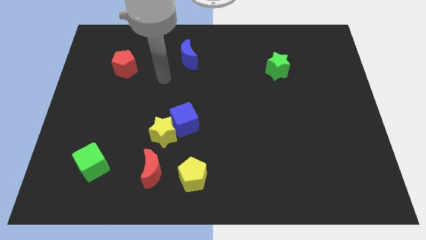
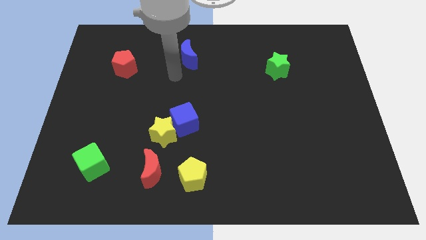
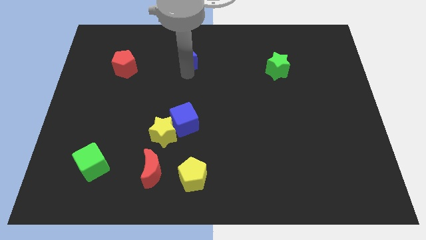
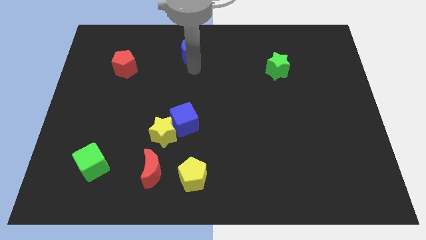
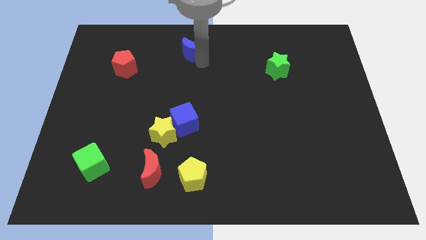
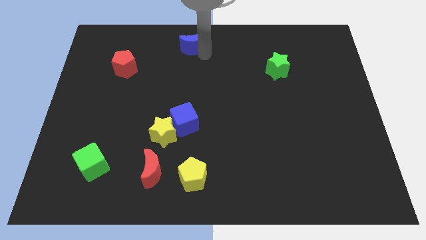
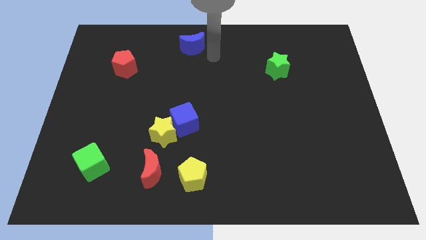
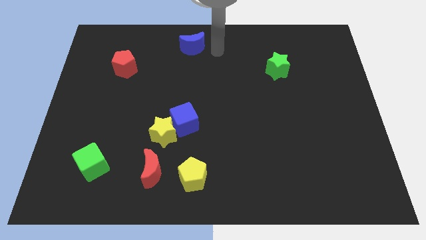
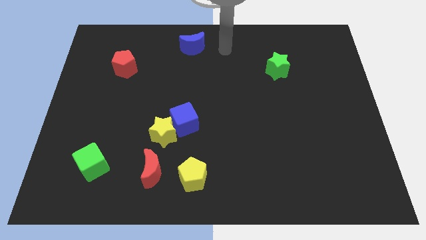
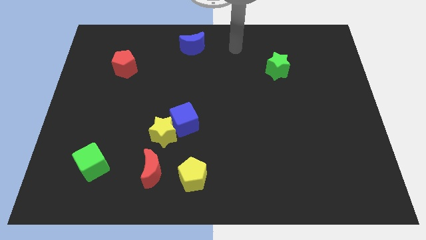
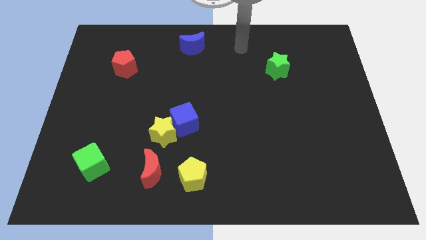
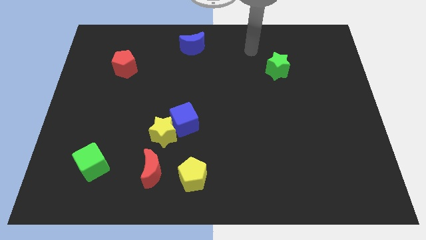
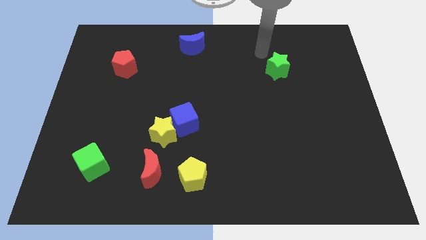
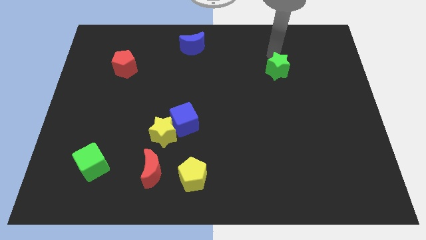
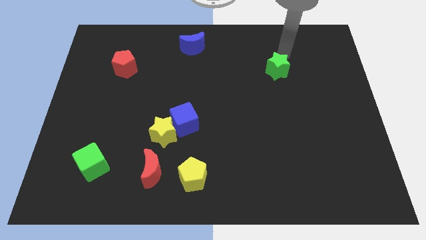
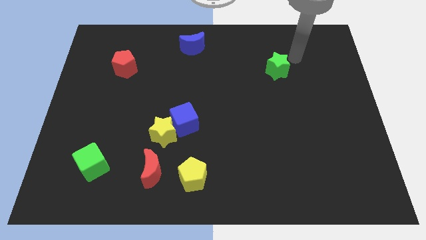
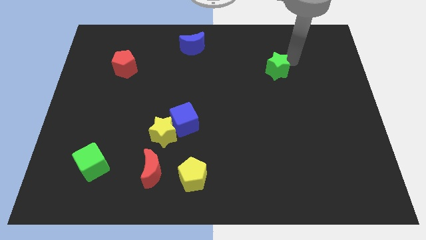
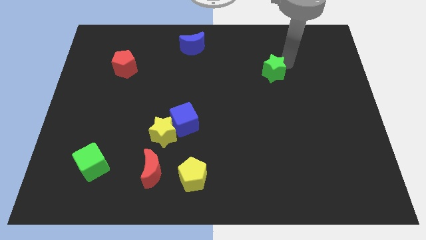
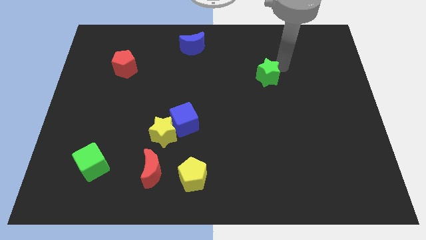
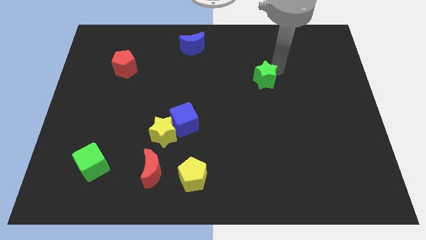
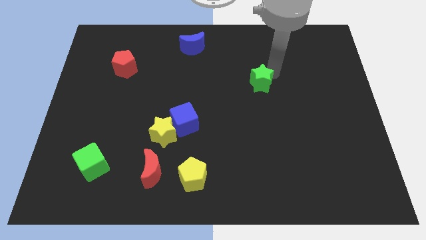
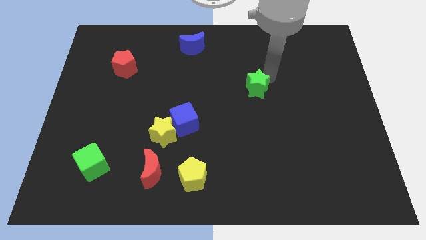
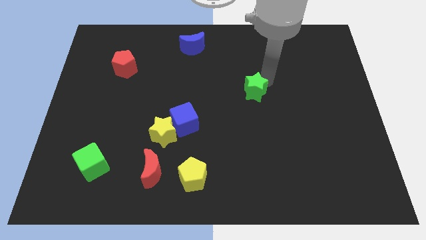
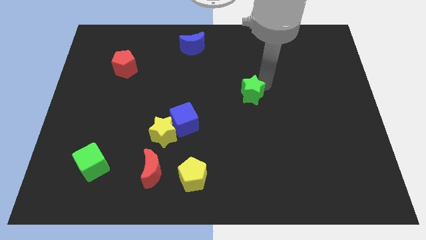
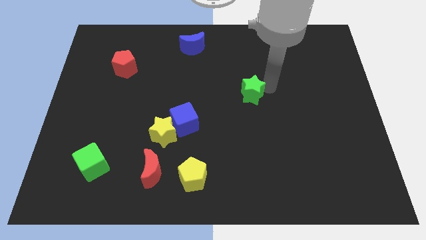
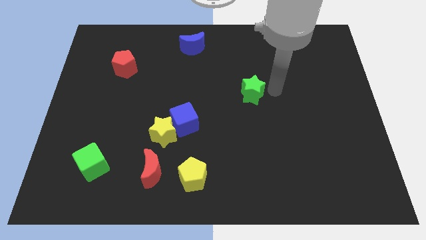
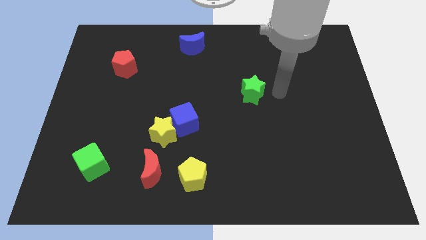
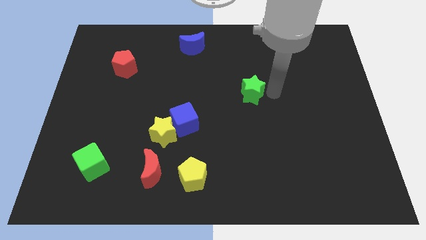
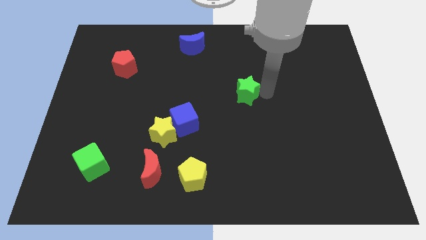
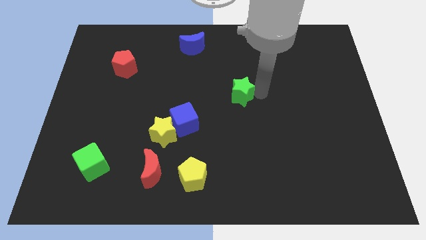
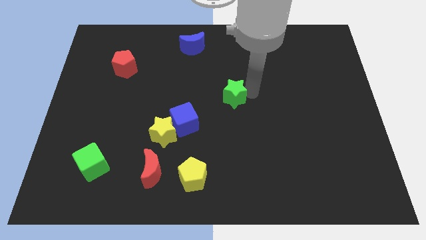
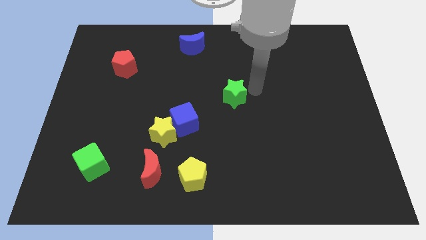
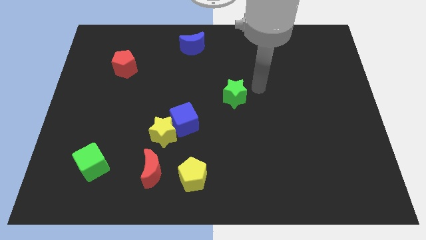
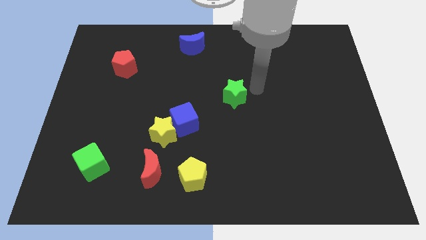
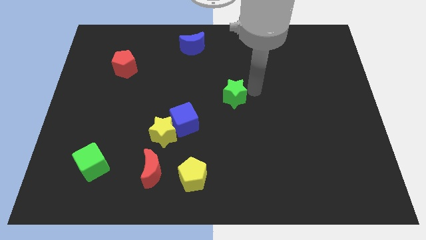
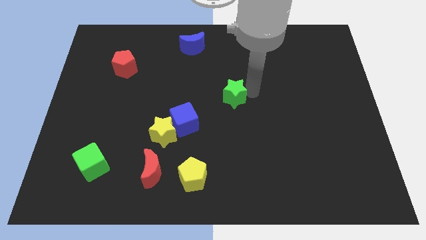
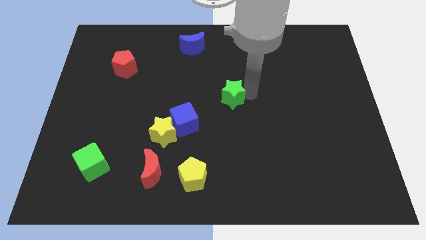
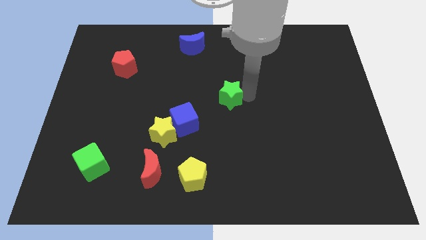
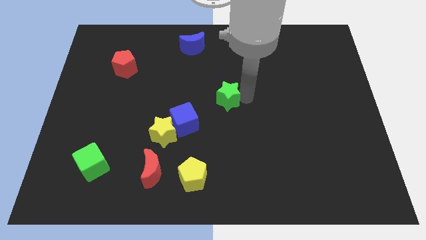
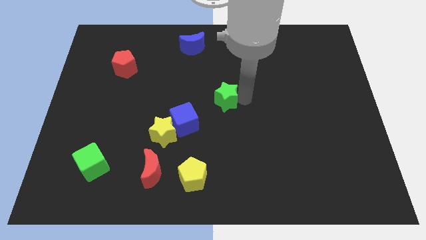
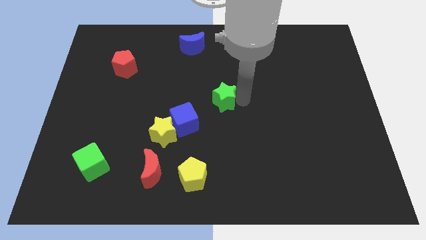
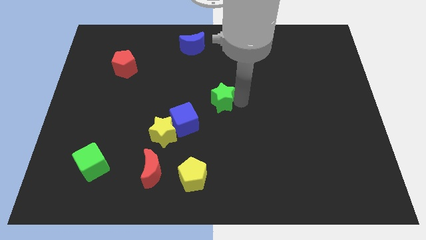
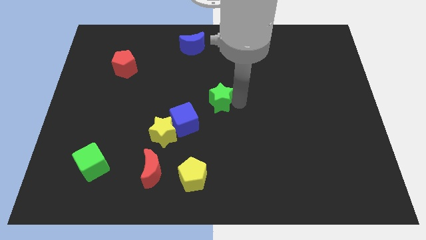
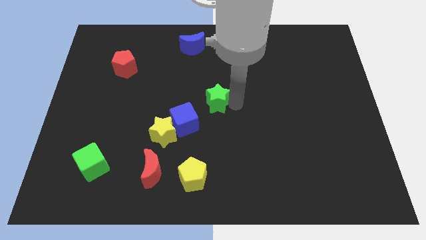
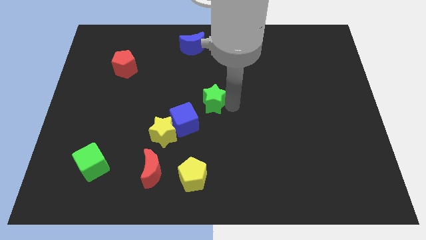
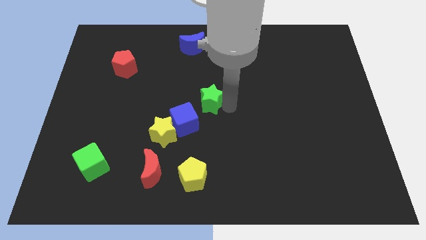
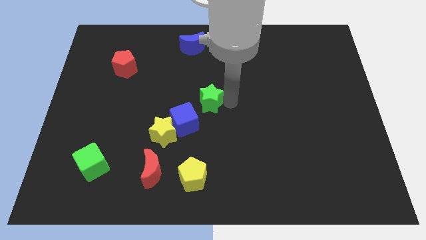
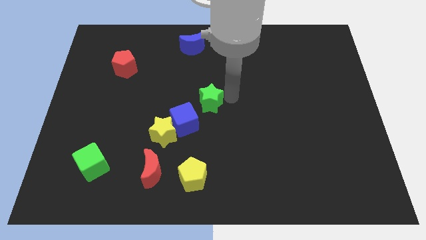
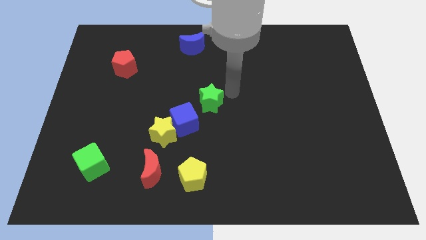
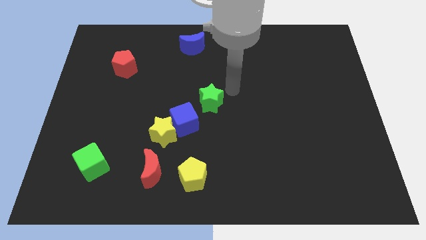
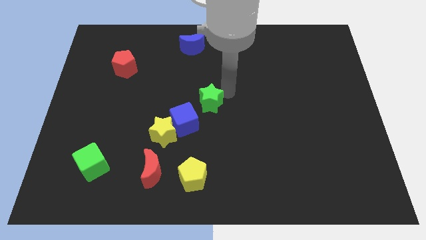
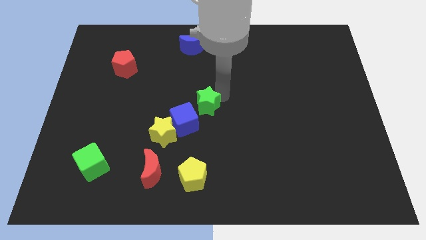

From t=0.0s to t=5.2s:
move the green star diagonally up and to the right of the yellow star

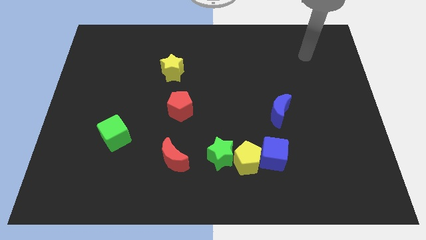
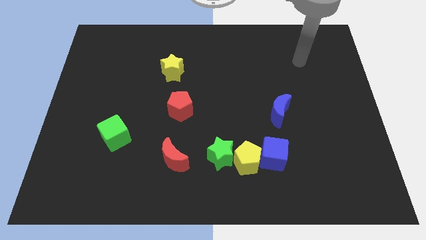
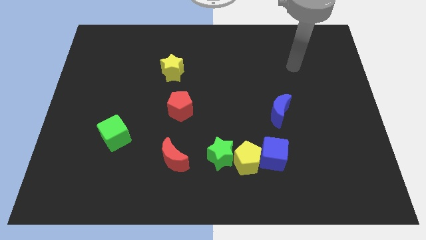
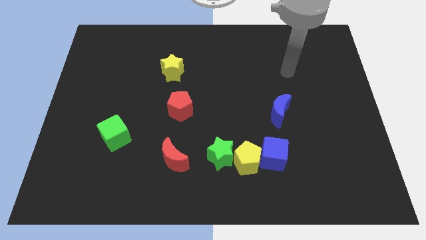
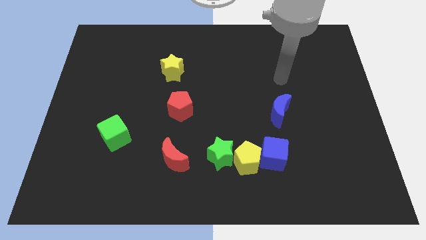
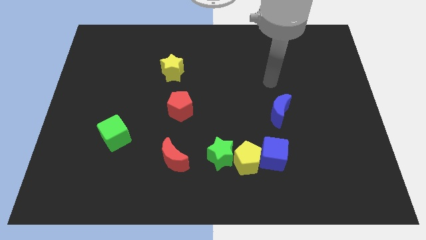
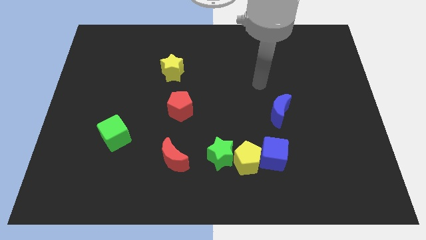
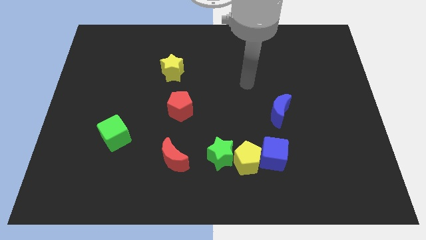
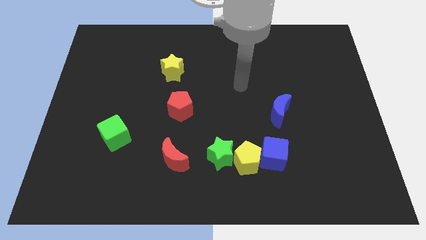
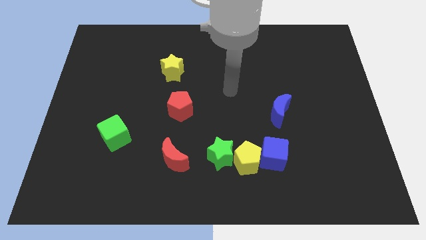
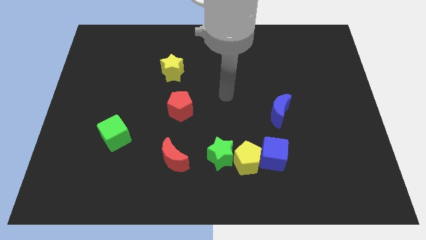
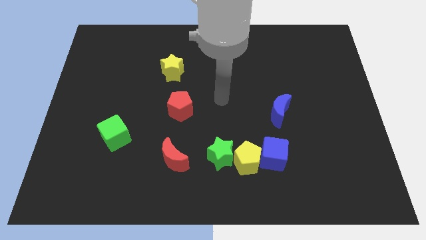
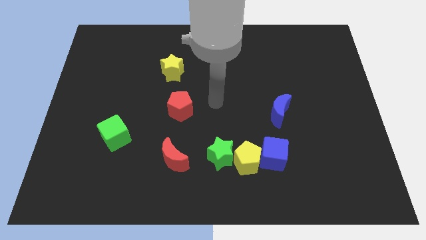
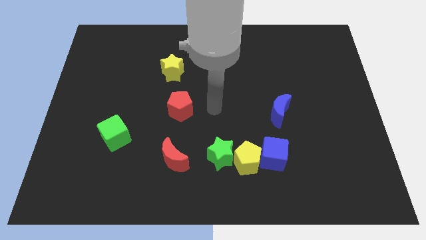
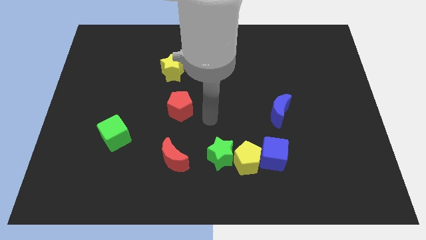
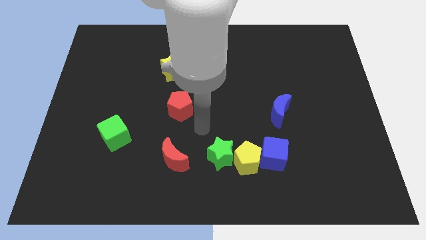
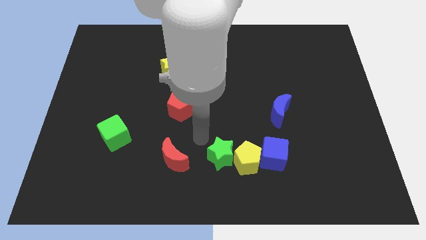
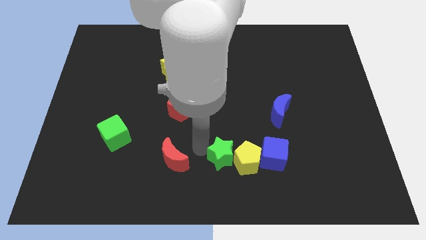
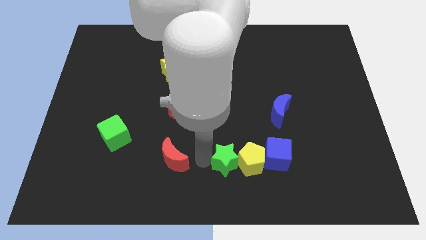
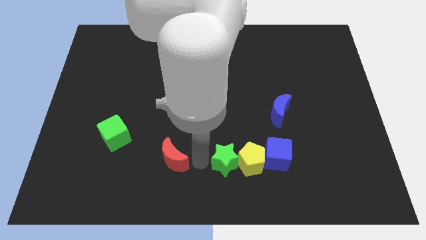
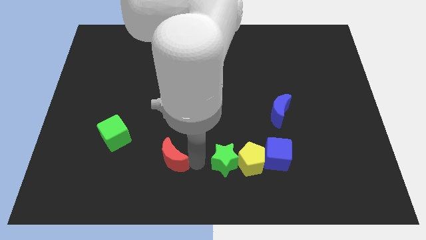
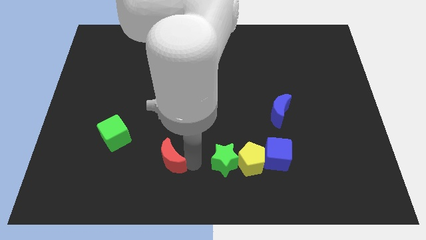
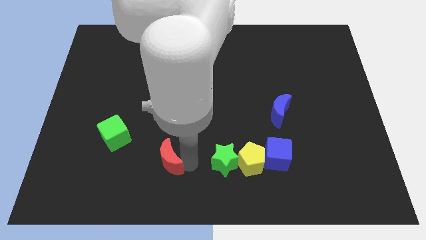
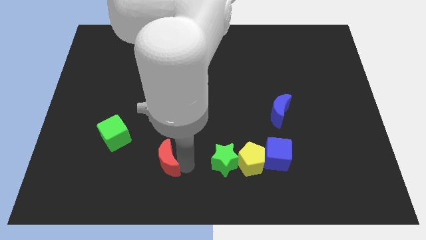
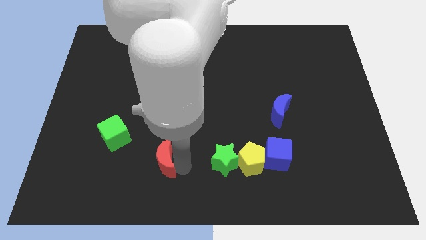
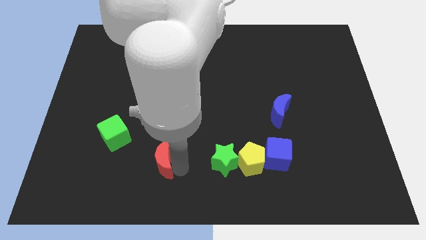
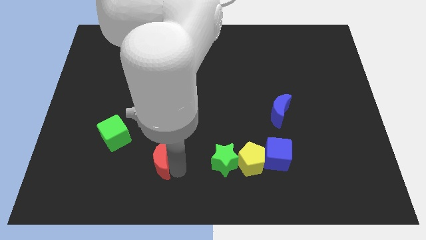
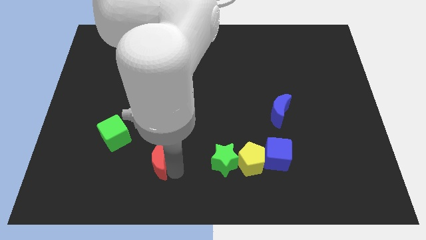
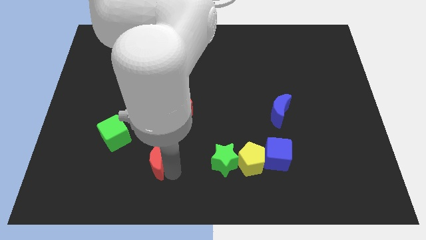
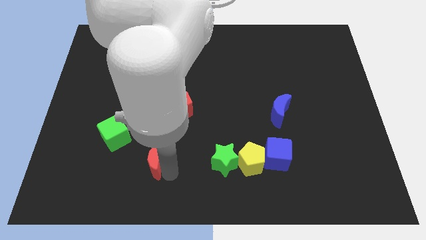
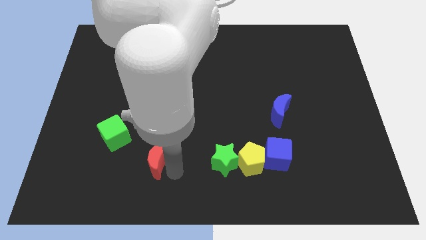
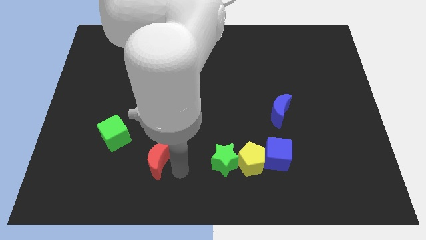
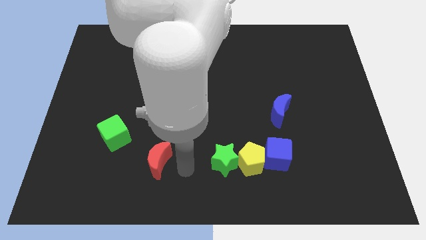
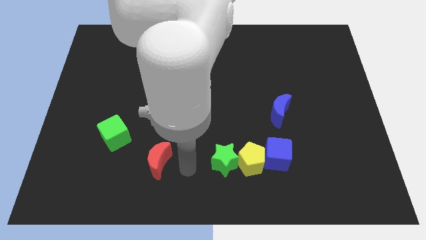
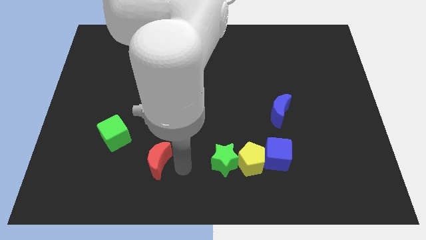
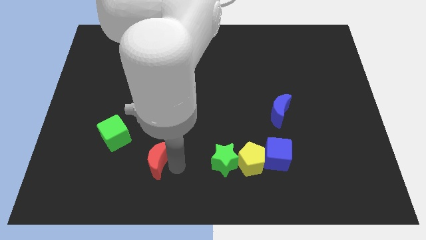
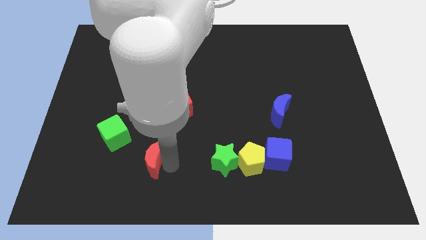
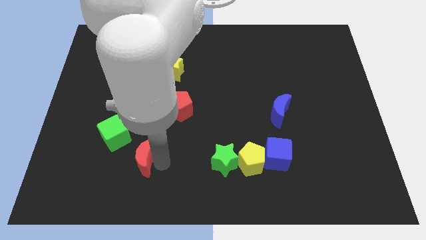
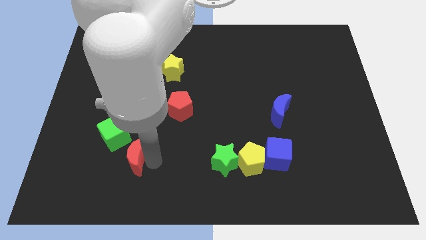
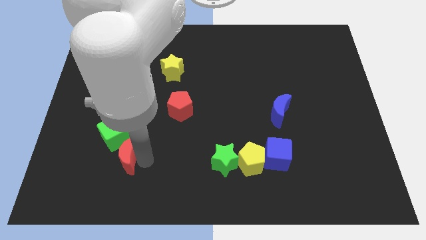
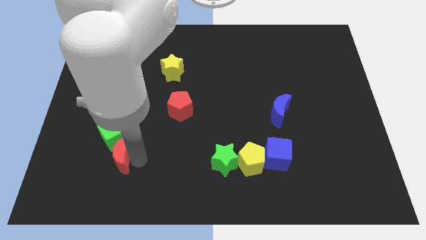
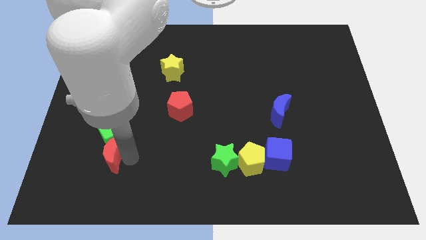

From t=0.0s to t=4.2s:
push the red moon to the bottom left side of the green cube
